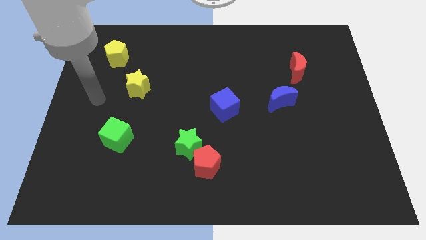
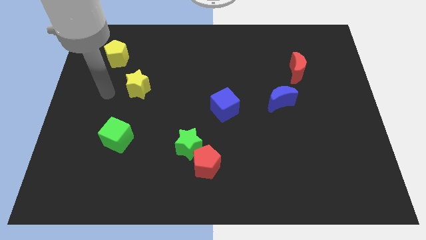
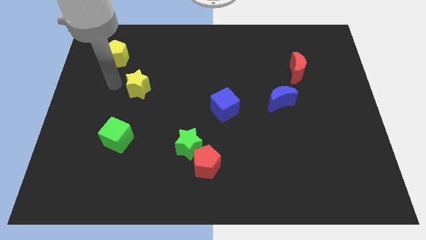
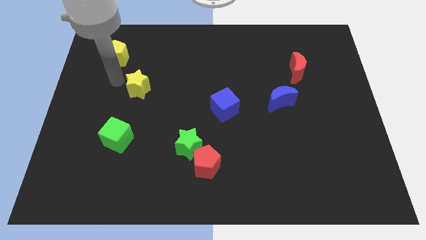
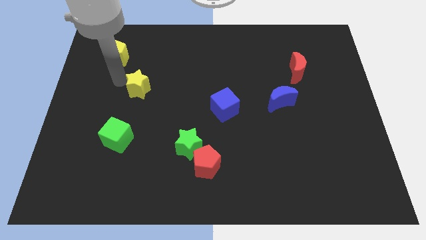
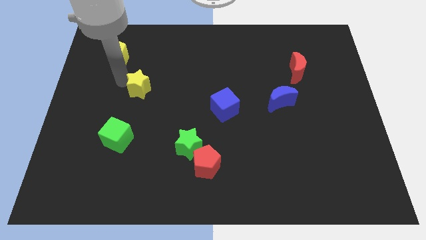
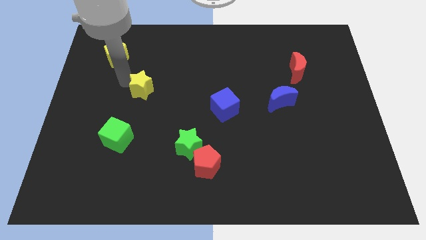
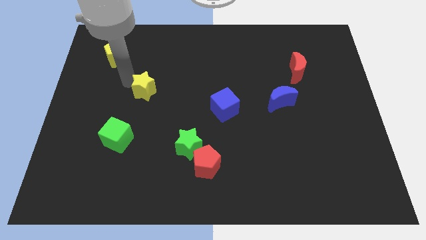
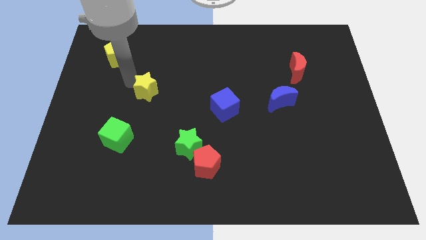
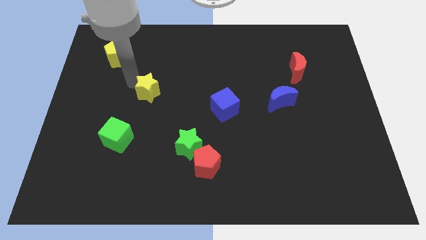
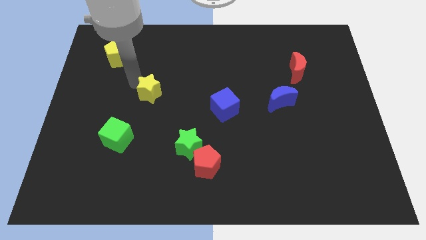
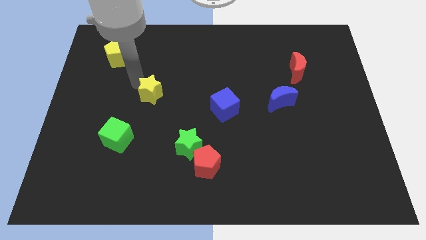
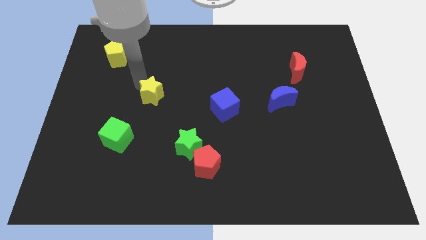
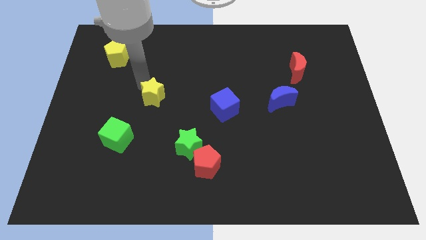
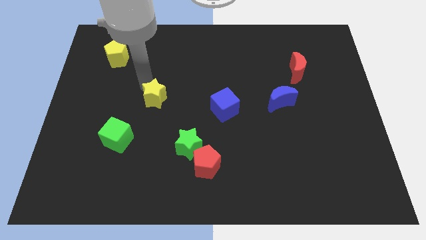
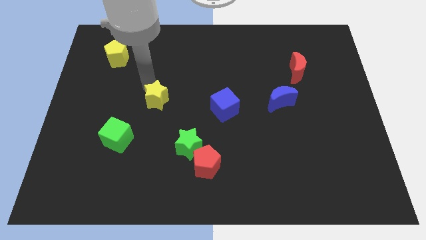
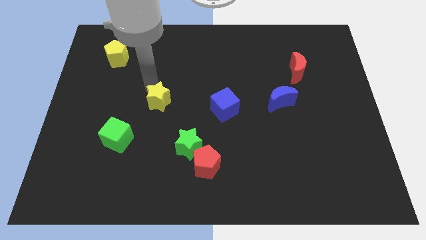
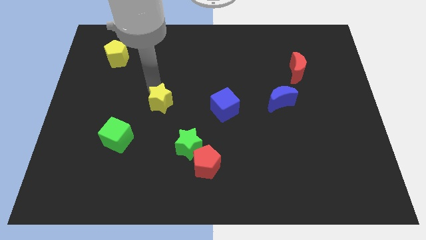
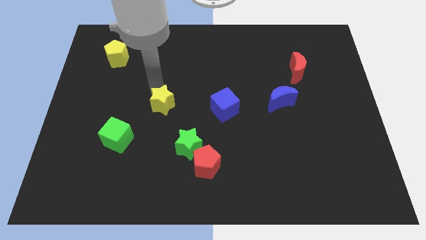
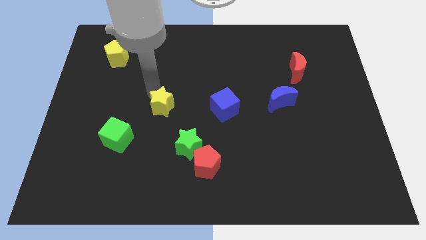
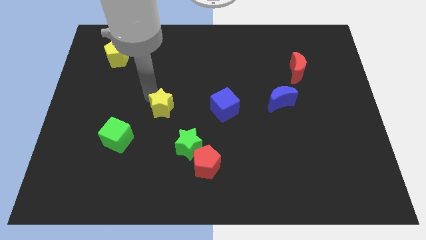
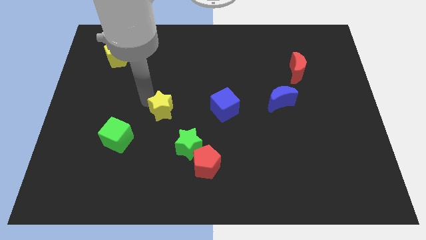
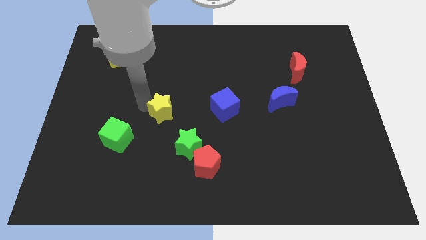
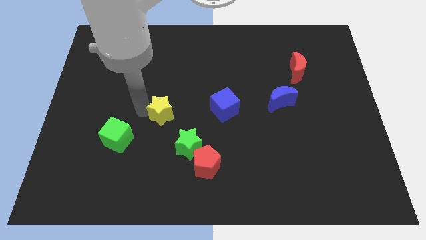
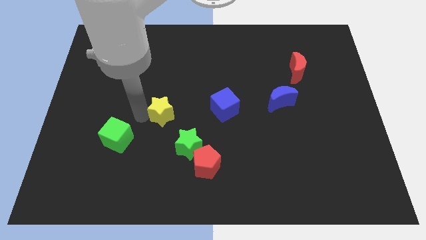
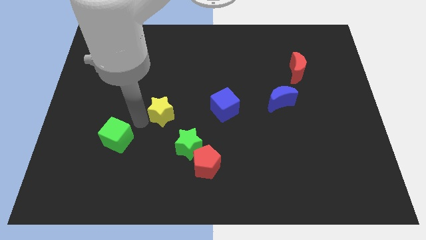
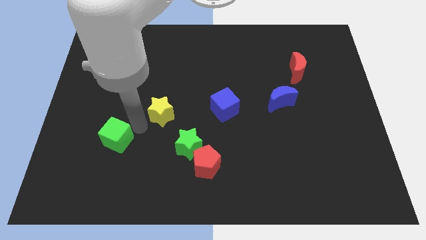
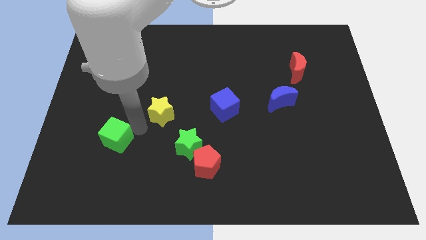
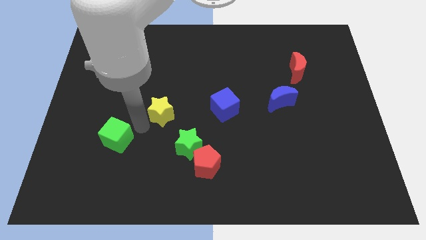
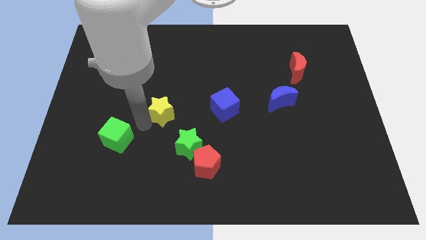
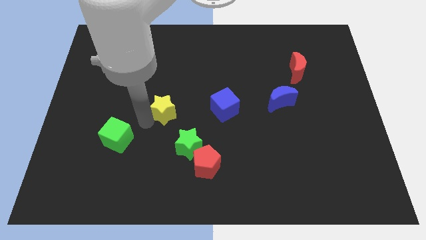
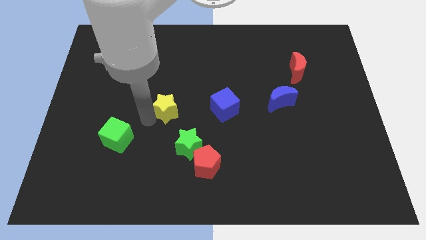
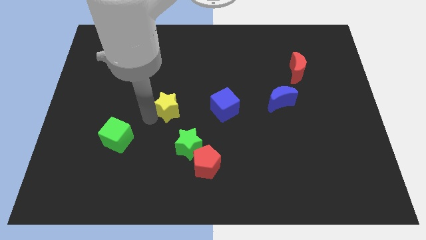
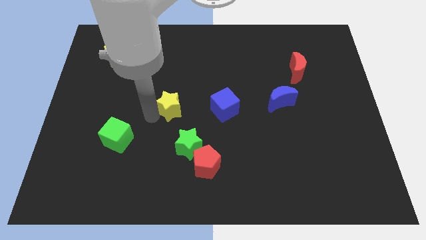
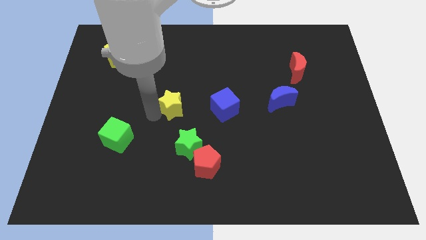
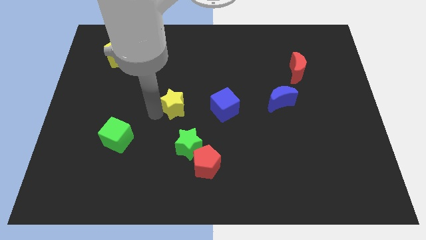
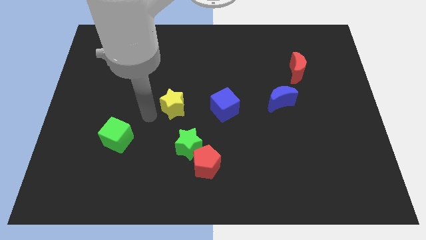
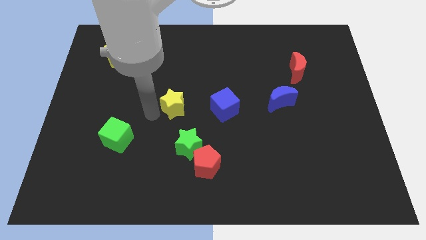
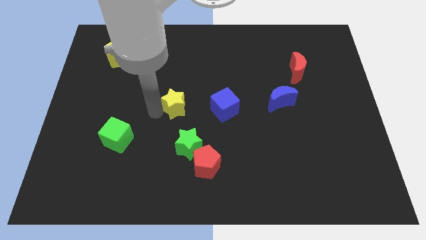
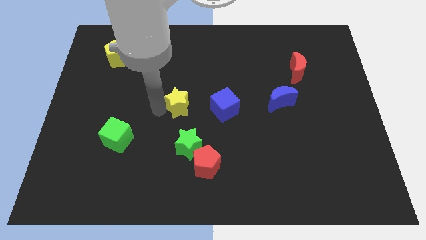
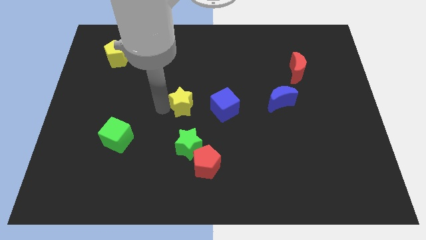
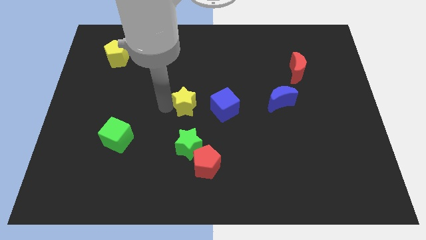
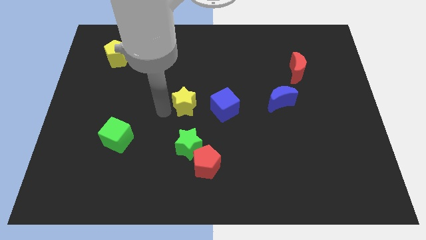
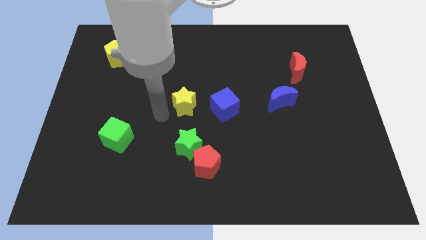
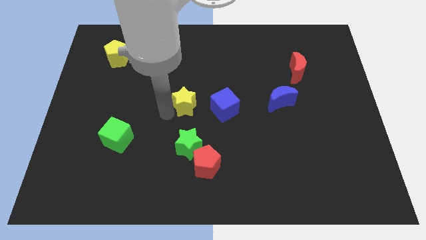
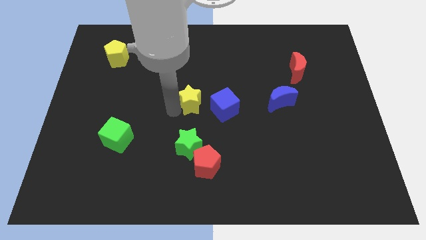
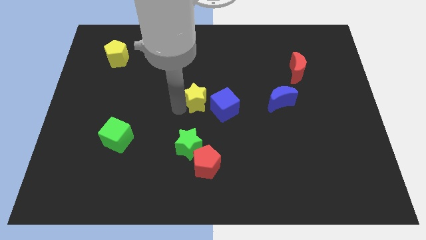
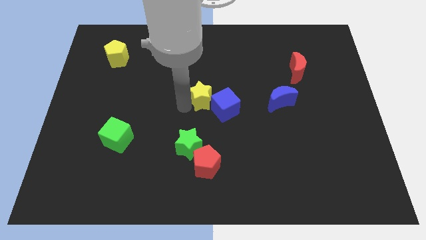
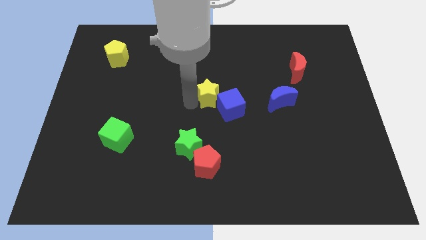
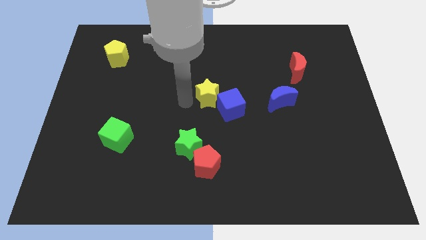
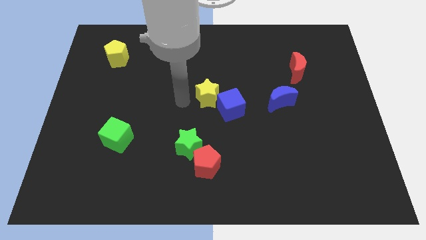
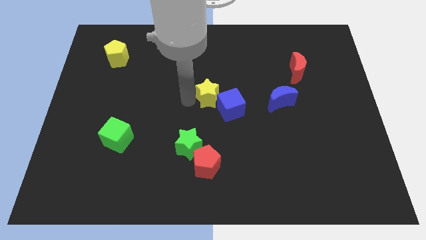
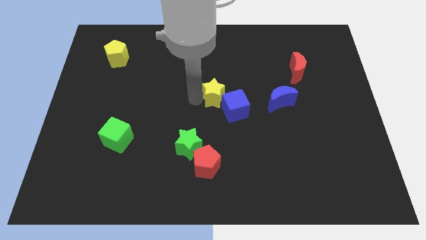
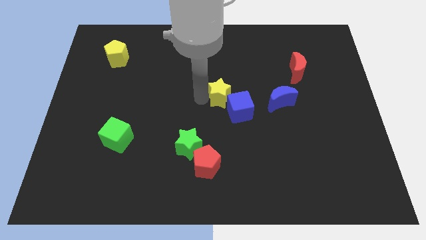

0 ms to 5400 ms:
move the yellow star right

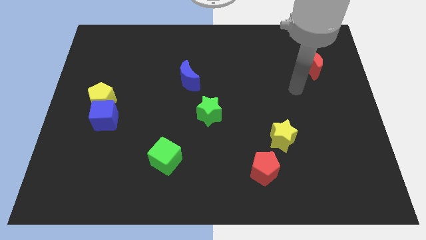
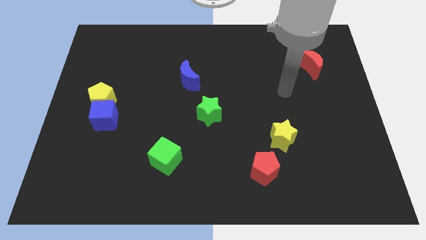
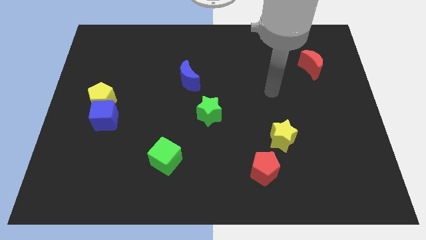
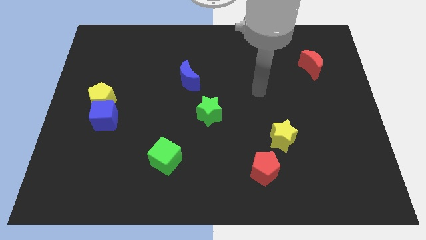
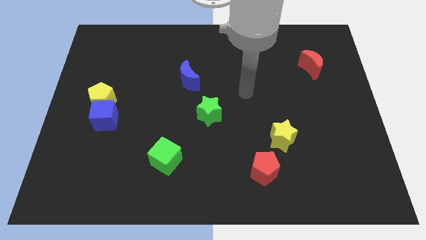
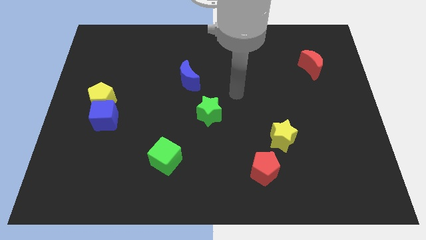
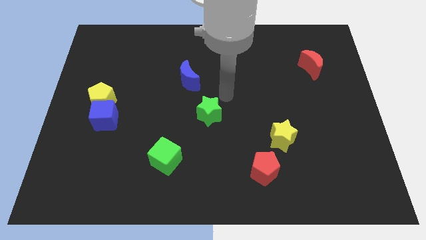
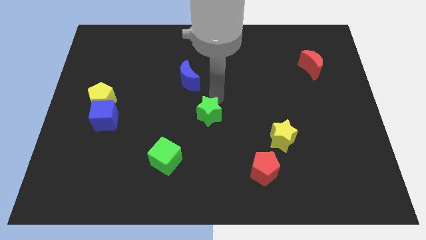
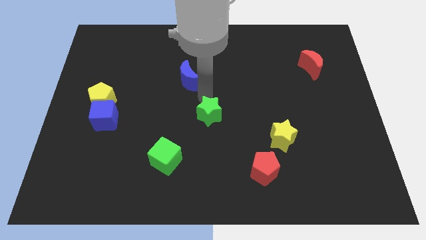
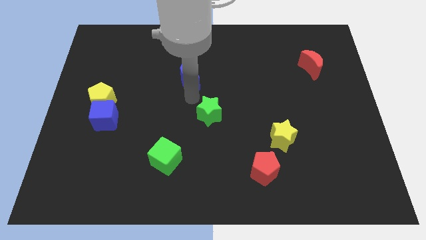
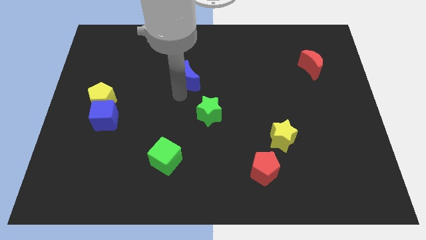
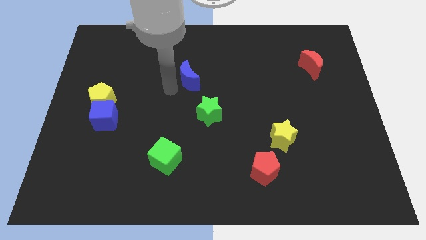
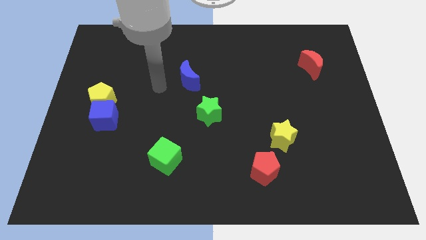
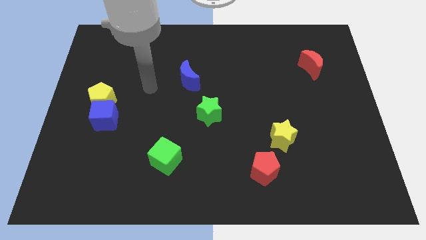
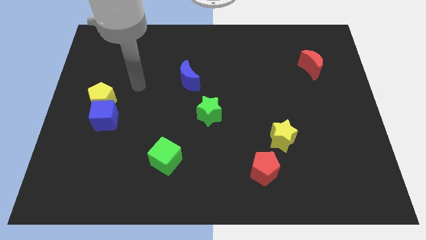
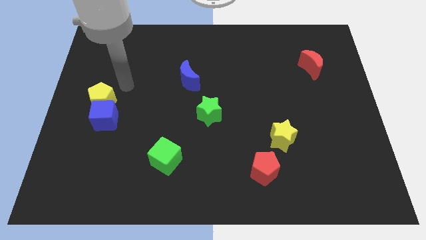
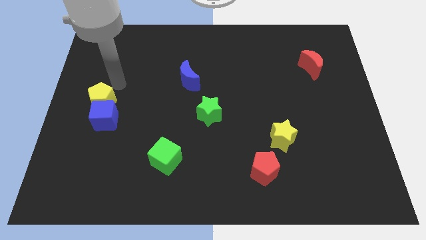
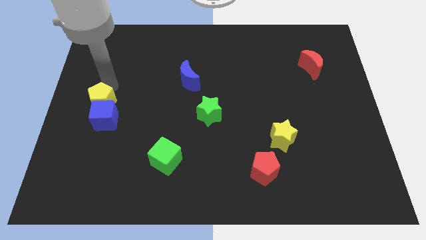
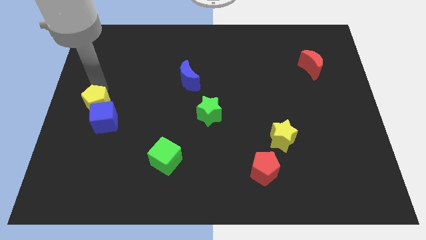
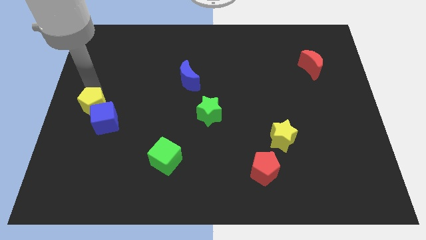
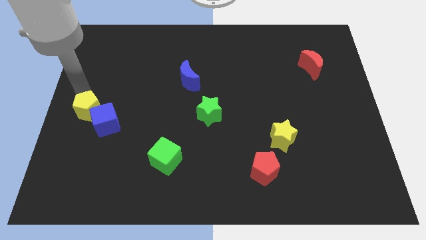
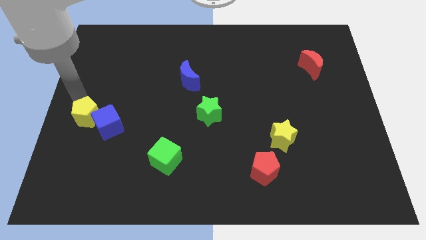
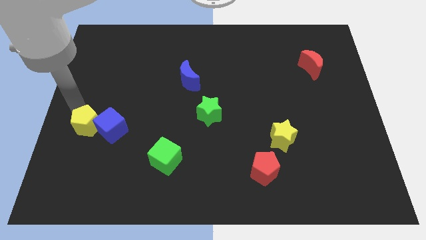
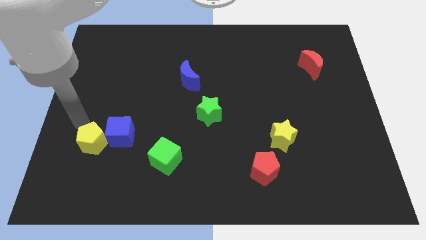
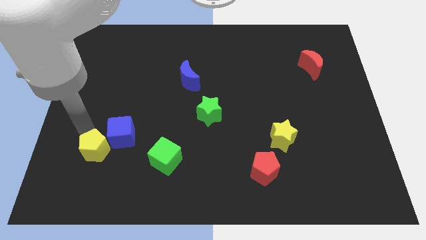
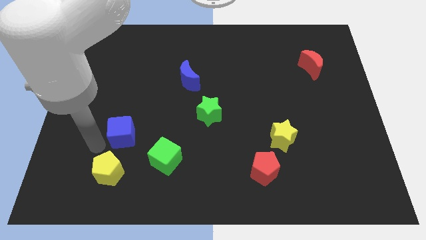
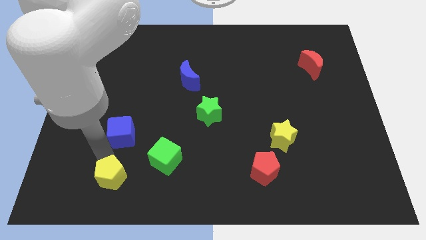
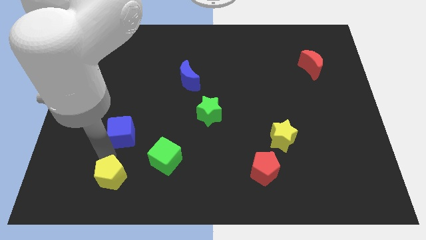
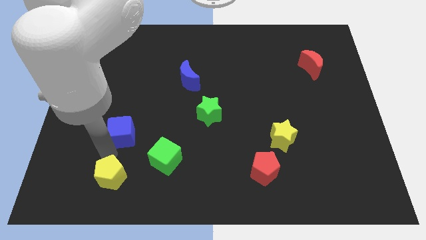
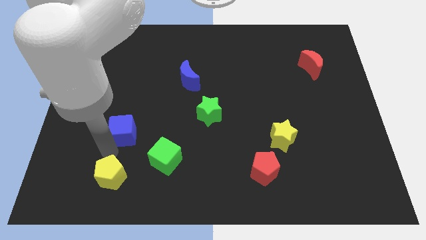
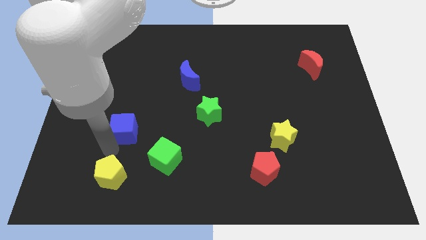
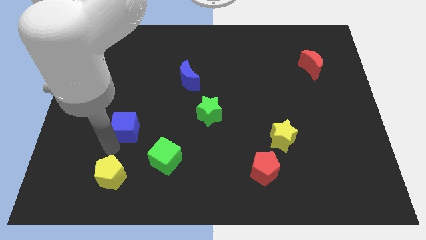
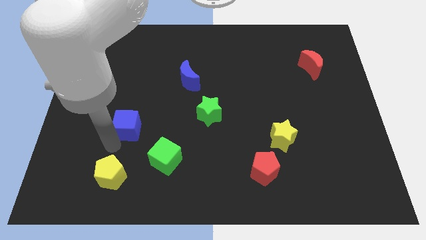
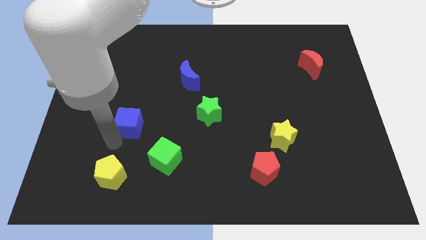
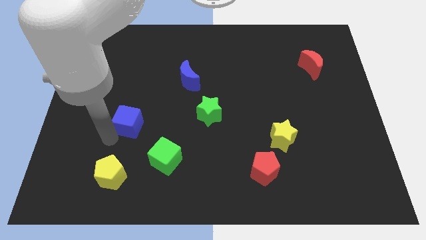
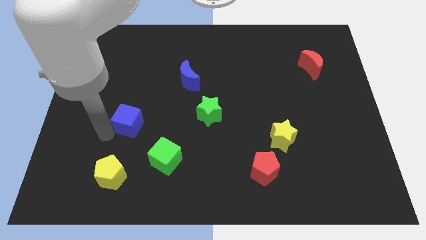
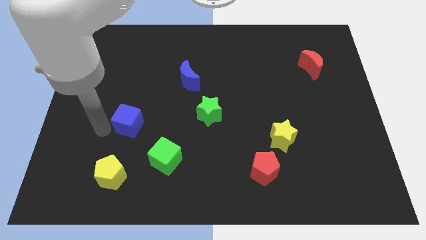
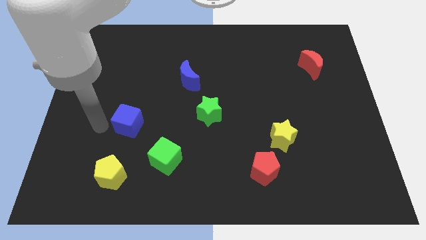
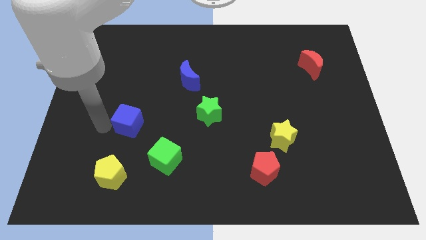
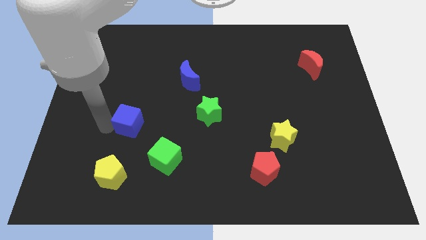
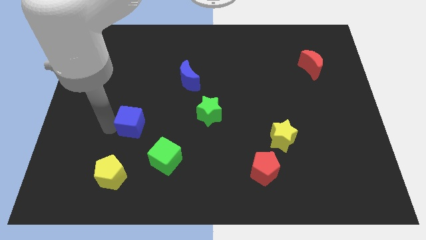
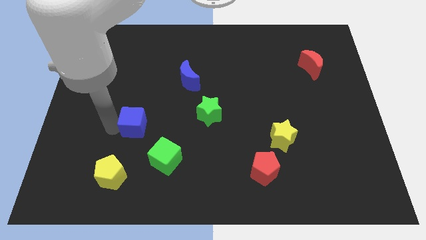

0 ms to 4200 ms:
slightly push the blue cube to the right
